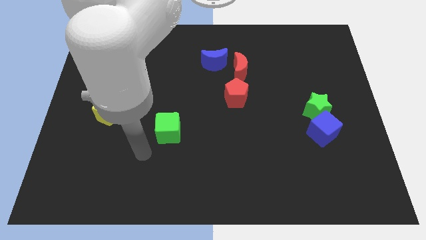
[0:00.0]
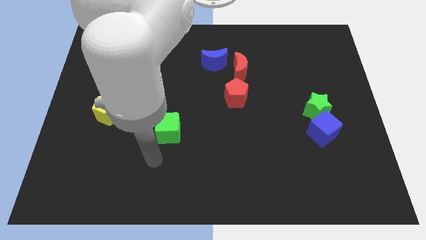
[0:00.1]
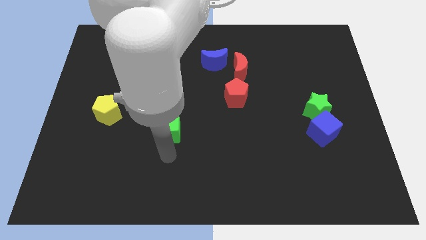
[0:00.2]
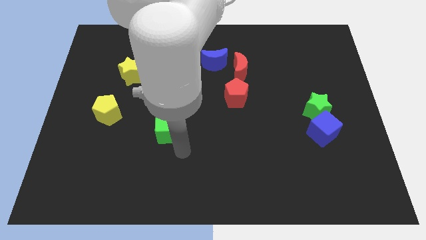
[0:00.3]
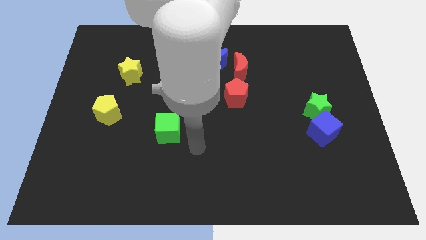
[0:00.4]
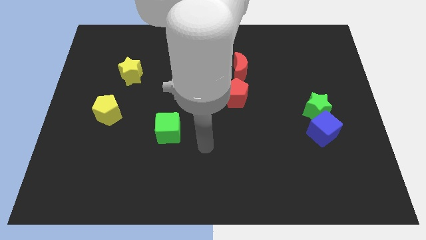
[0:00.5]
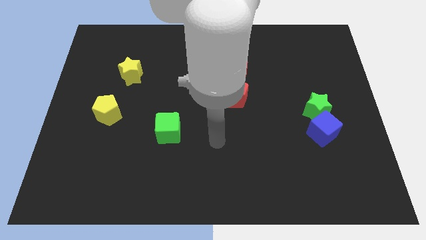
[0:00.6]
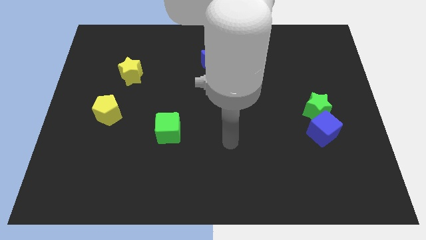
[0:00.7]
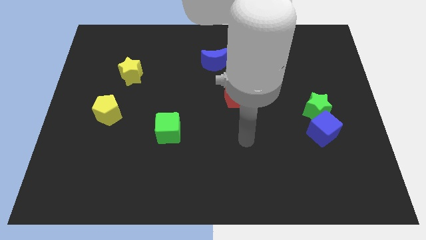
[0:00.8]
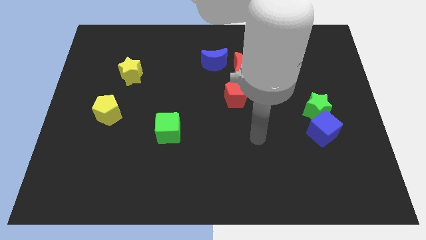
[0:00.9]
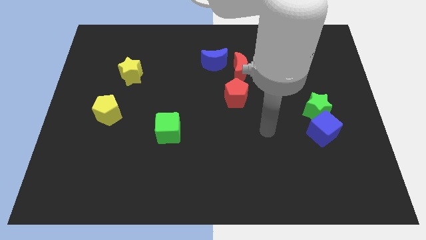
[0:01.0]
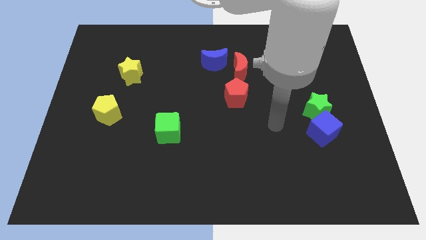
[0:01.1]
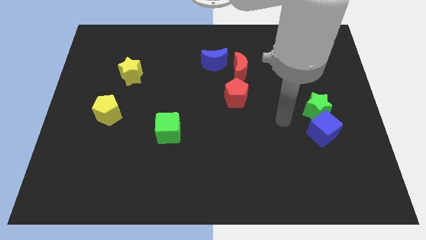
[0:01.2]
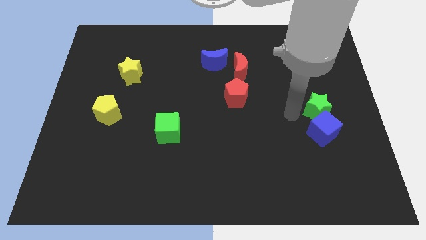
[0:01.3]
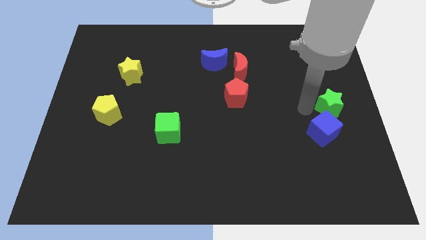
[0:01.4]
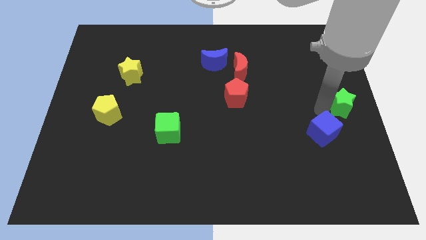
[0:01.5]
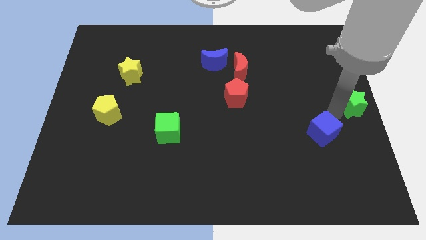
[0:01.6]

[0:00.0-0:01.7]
pull the blue cube apart from the green star

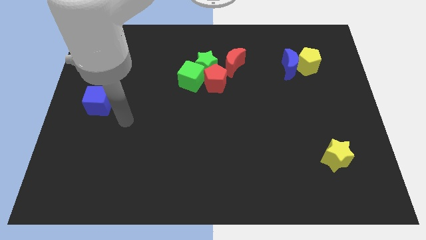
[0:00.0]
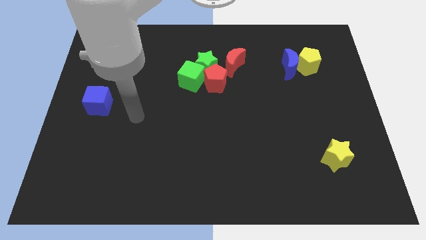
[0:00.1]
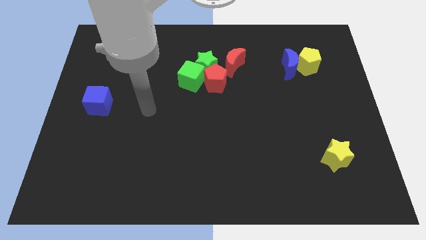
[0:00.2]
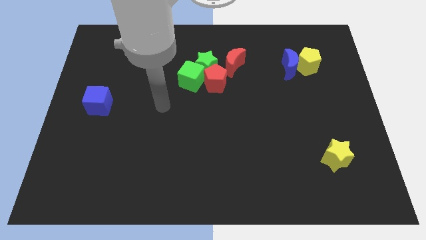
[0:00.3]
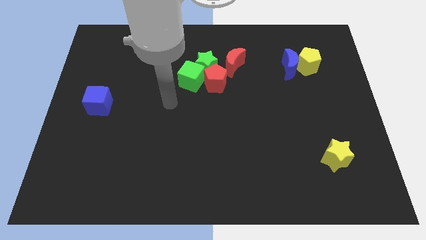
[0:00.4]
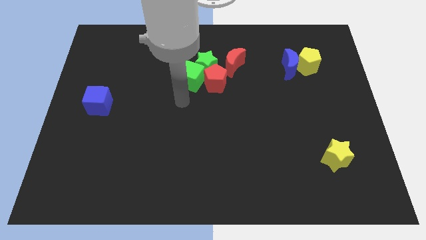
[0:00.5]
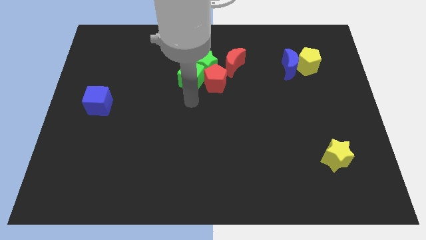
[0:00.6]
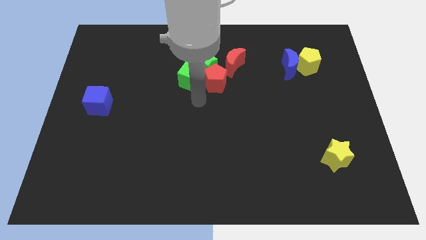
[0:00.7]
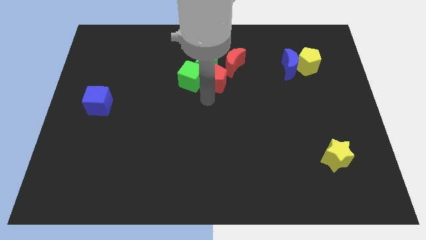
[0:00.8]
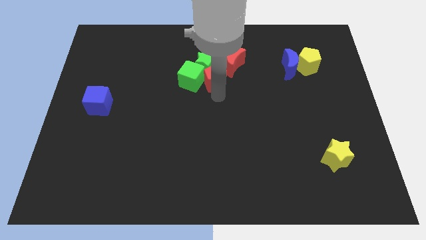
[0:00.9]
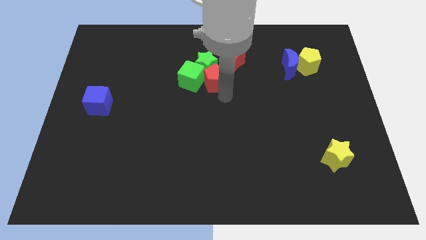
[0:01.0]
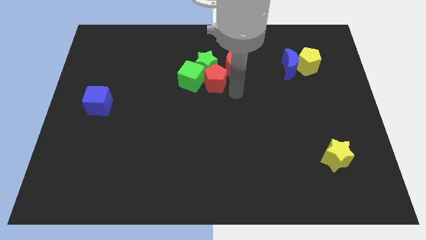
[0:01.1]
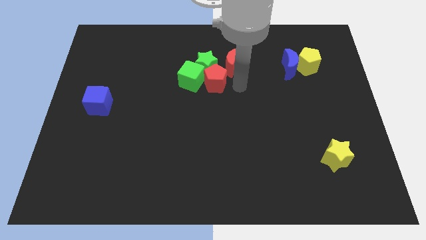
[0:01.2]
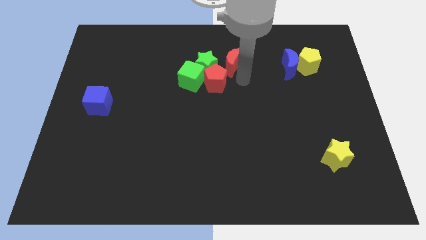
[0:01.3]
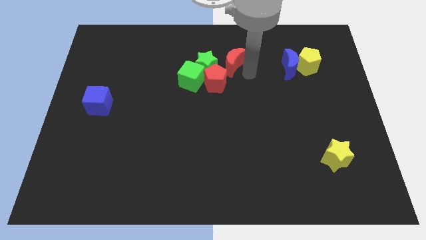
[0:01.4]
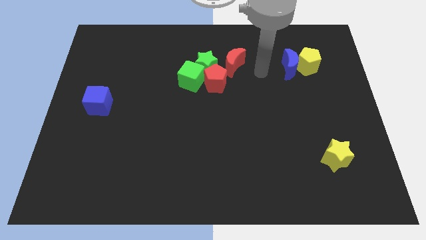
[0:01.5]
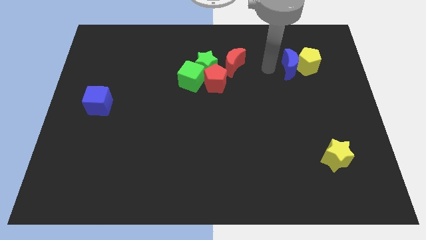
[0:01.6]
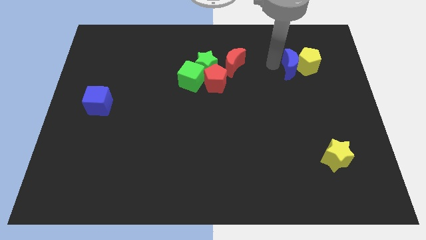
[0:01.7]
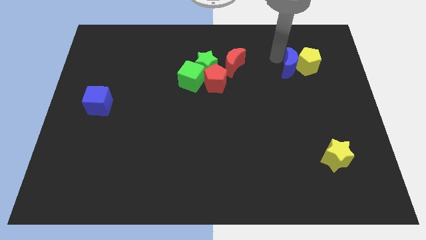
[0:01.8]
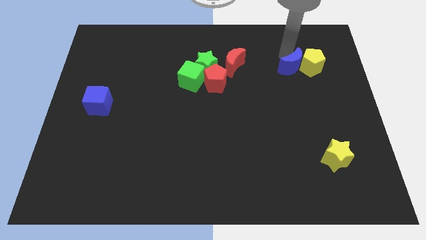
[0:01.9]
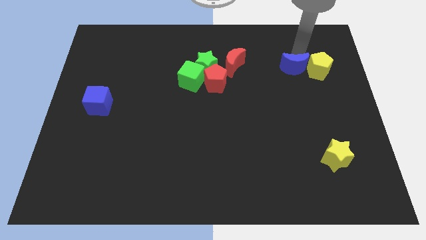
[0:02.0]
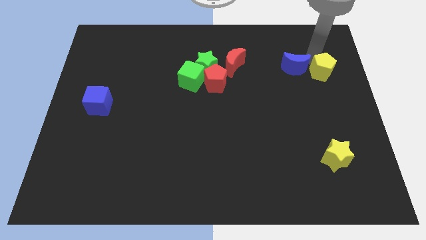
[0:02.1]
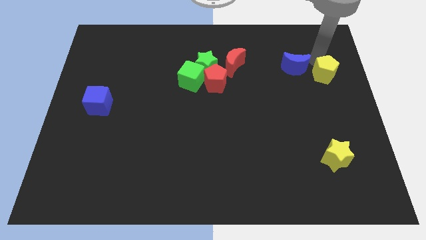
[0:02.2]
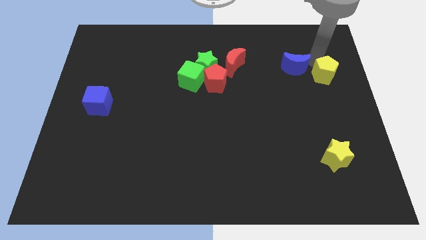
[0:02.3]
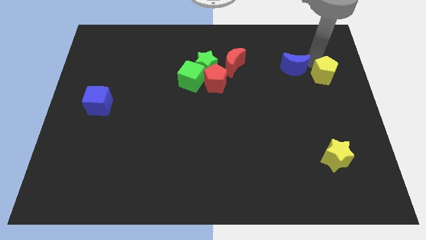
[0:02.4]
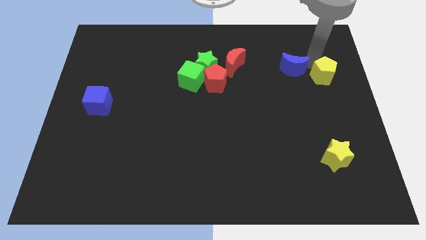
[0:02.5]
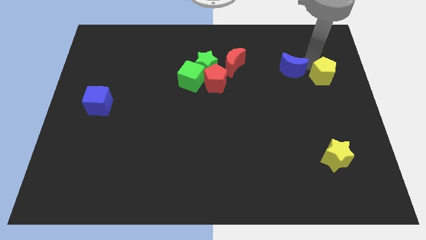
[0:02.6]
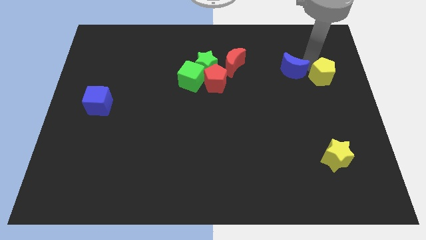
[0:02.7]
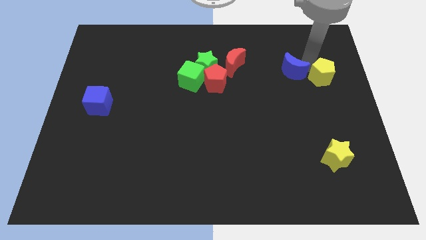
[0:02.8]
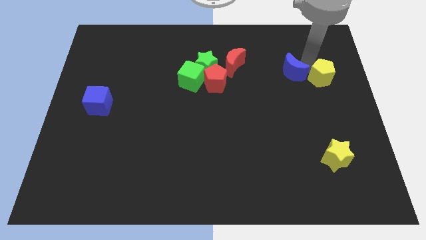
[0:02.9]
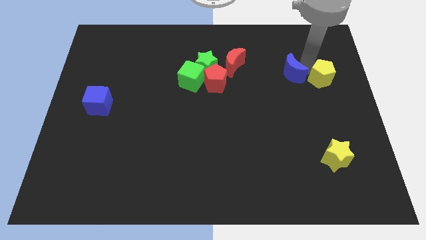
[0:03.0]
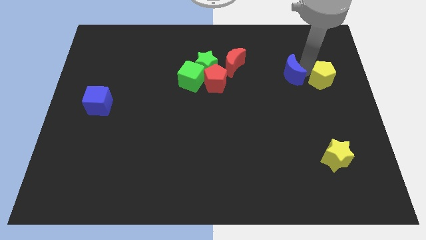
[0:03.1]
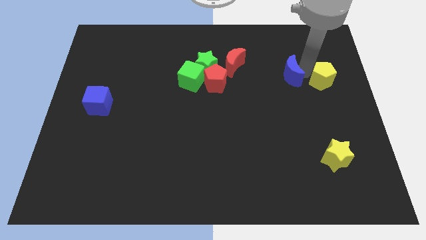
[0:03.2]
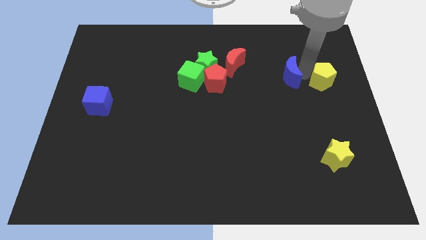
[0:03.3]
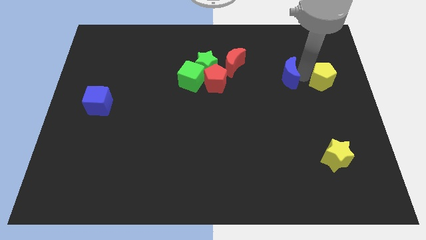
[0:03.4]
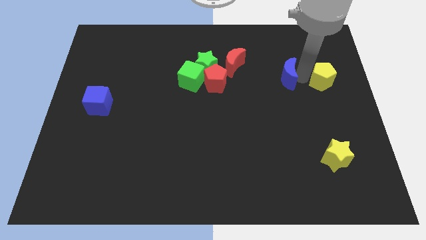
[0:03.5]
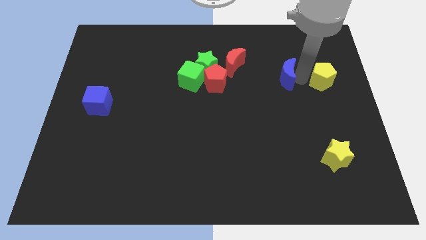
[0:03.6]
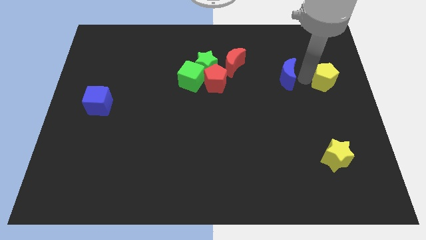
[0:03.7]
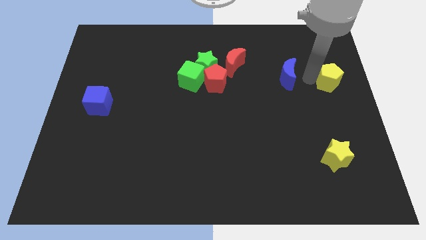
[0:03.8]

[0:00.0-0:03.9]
pull the blue moon apart from the yellow pentagon

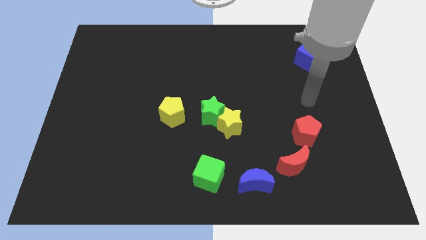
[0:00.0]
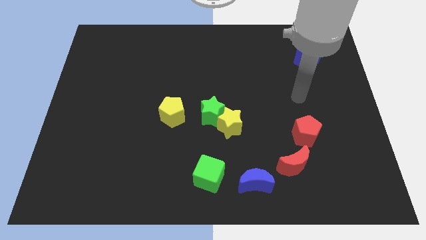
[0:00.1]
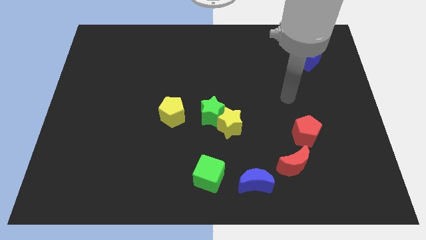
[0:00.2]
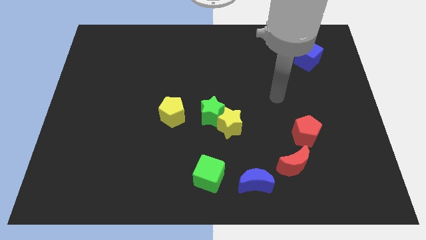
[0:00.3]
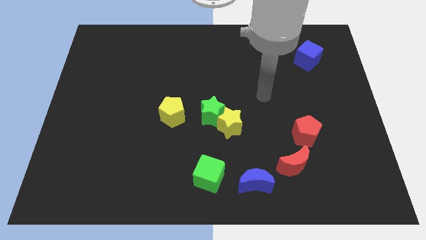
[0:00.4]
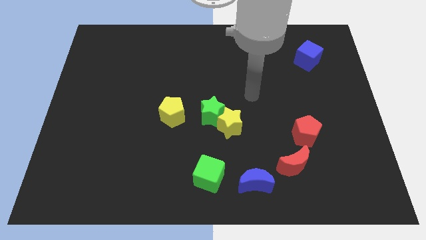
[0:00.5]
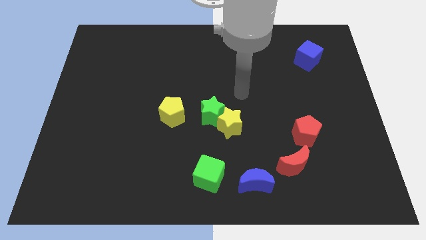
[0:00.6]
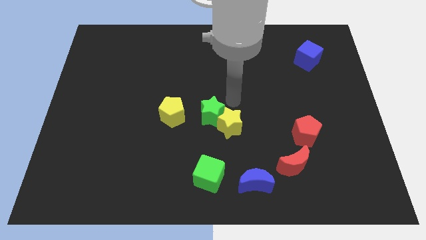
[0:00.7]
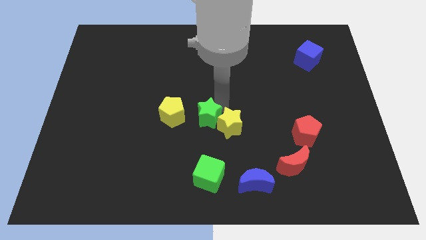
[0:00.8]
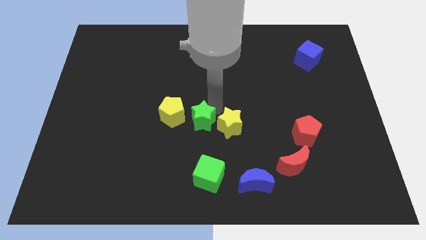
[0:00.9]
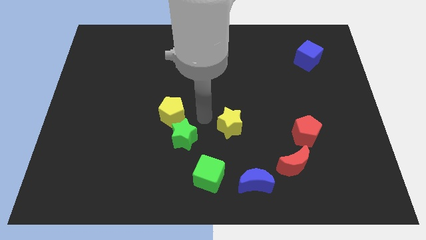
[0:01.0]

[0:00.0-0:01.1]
move the yellow star away from the green star

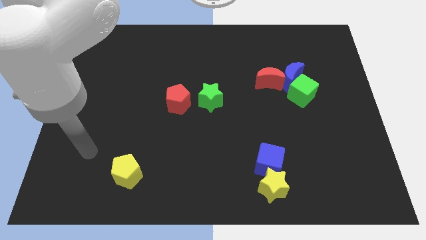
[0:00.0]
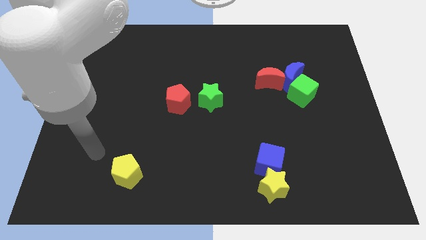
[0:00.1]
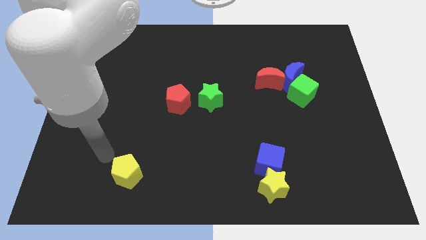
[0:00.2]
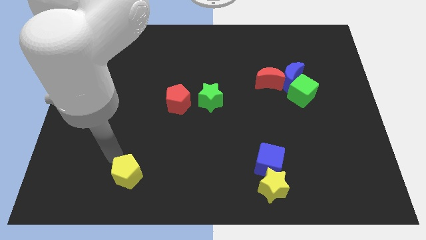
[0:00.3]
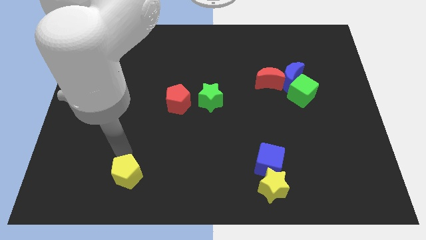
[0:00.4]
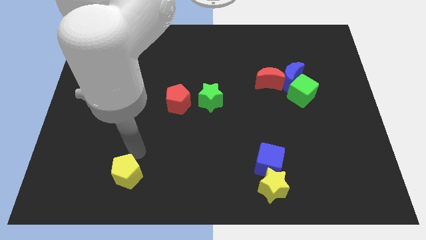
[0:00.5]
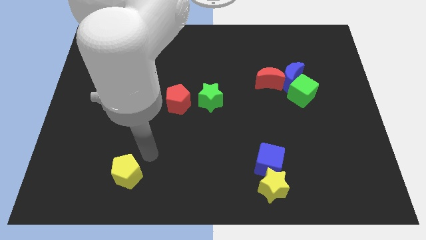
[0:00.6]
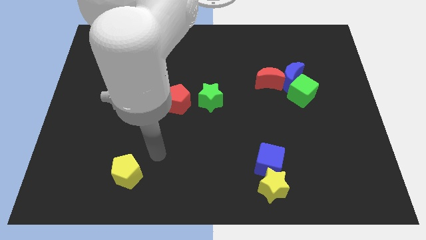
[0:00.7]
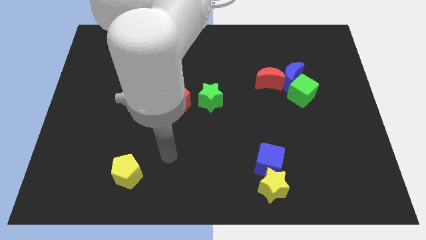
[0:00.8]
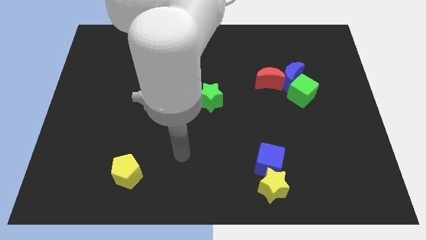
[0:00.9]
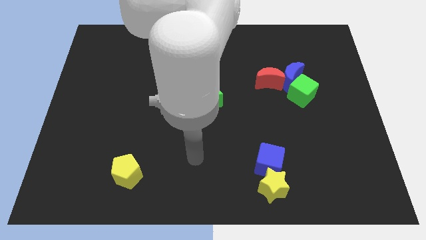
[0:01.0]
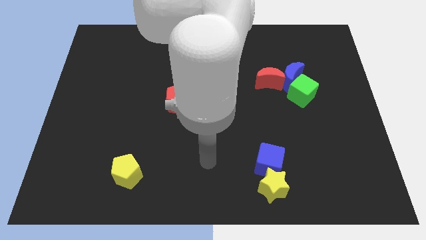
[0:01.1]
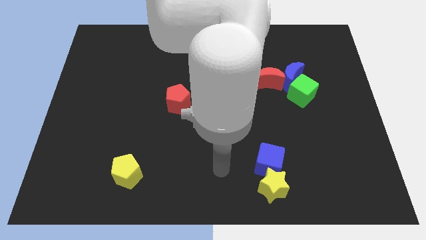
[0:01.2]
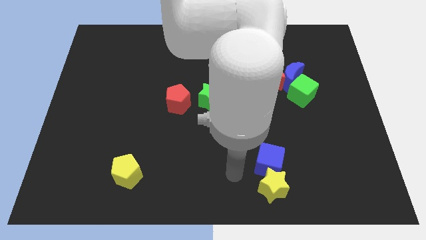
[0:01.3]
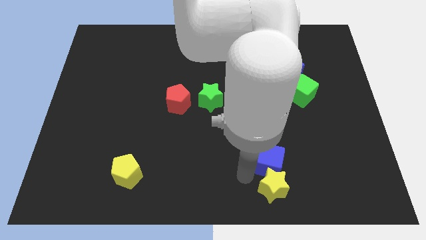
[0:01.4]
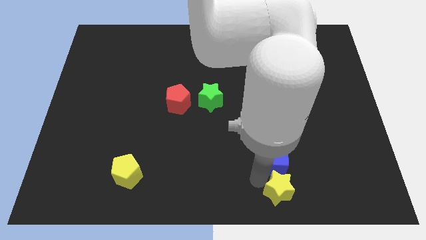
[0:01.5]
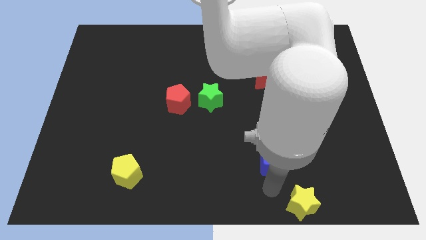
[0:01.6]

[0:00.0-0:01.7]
separate the blue cube from the yellow star

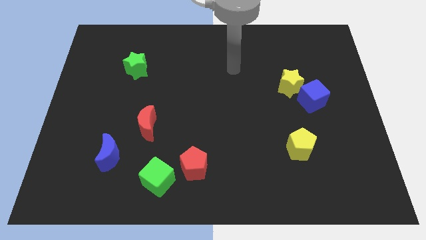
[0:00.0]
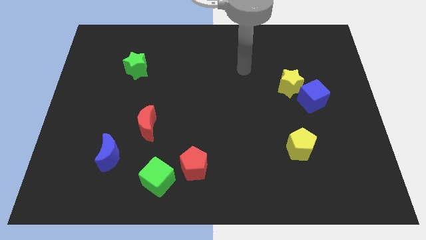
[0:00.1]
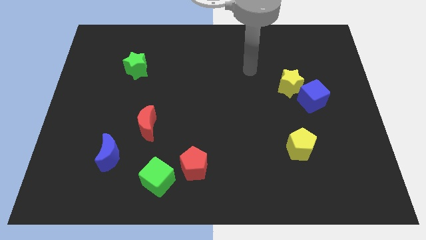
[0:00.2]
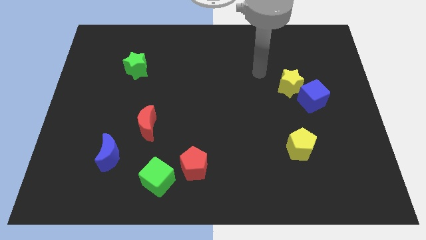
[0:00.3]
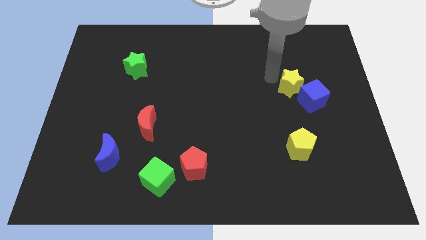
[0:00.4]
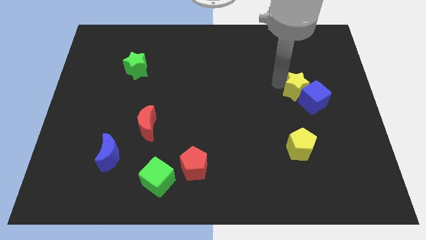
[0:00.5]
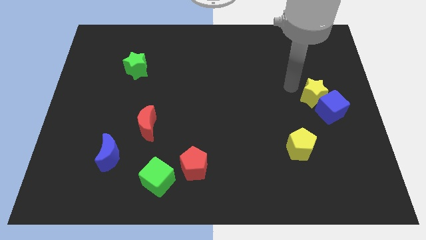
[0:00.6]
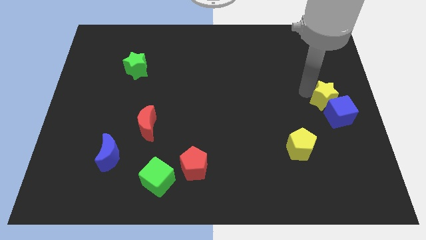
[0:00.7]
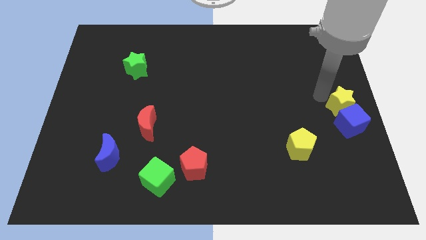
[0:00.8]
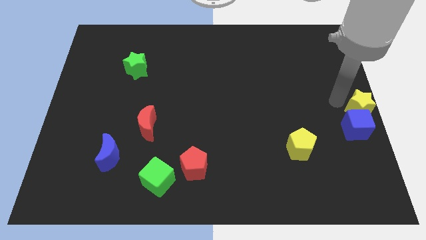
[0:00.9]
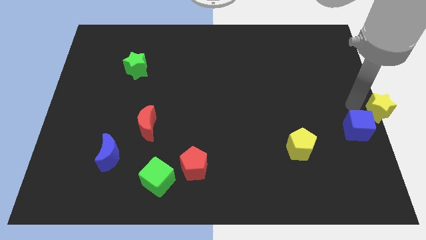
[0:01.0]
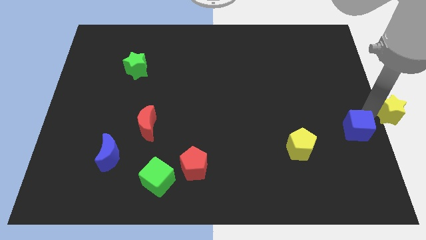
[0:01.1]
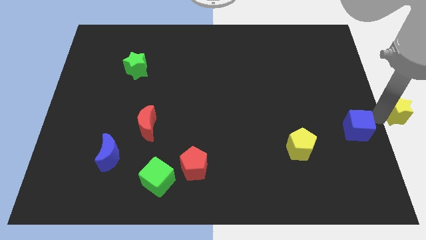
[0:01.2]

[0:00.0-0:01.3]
pull the blue cube apart from the yellow star
